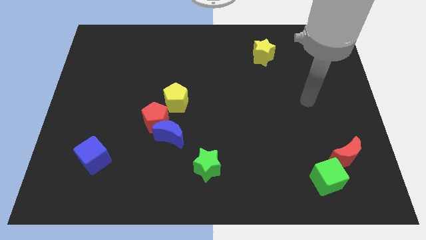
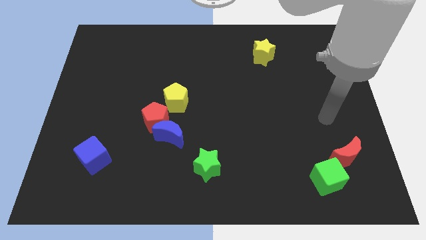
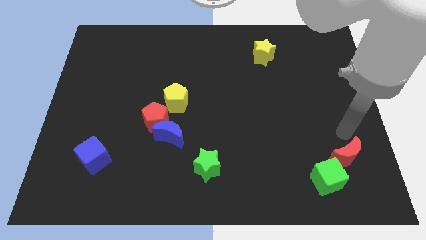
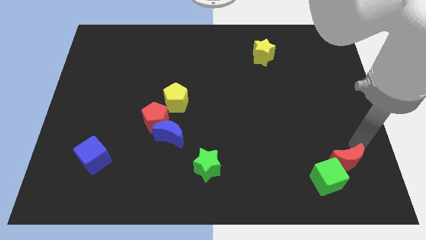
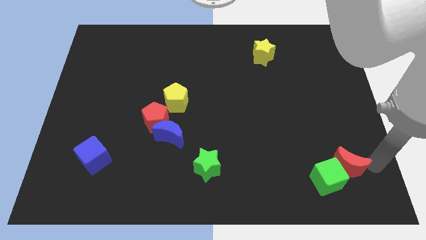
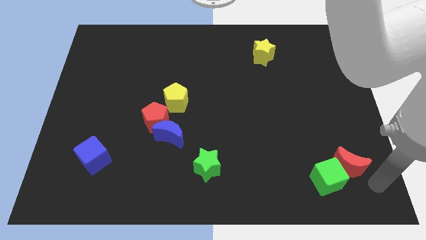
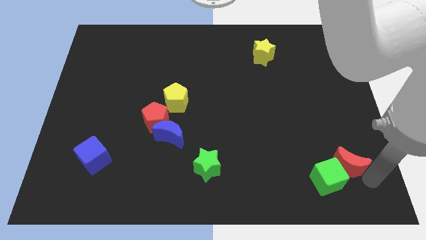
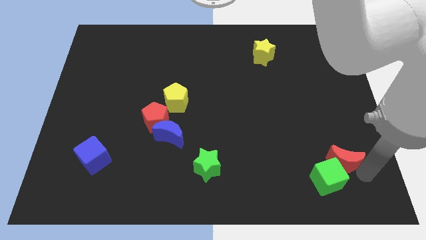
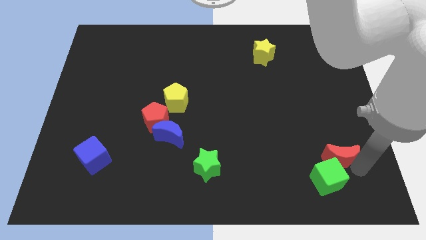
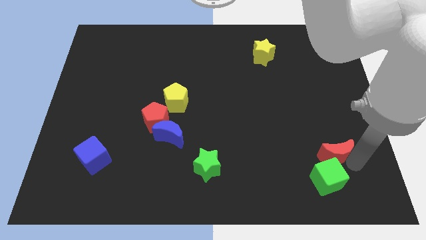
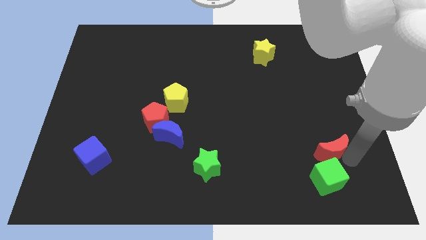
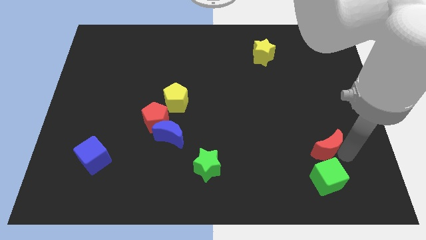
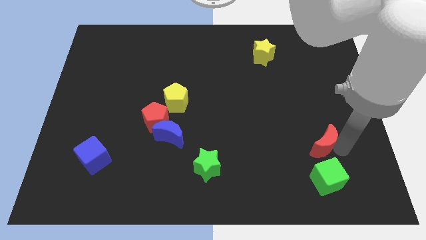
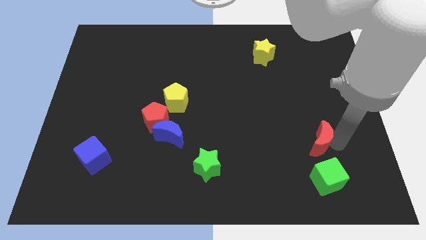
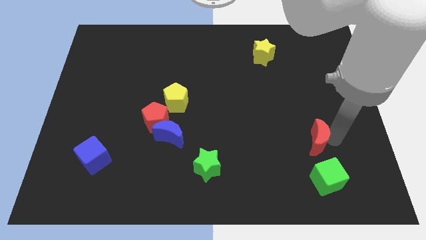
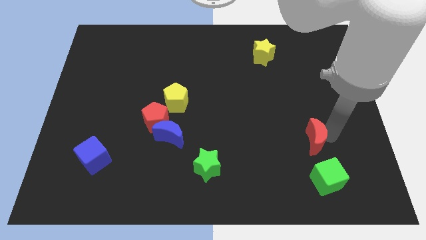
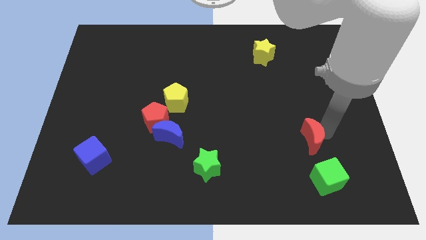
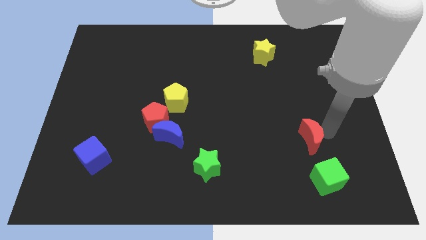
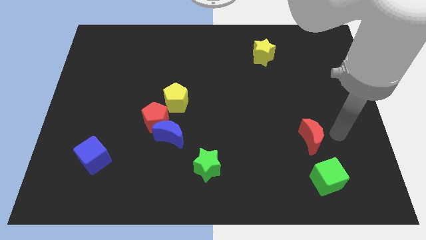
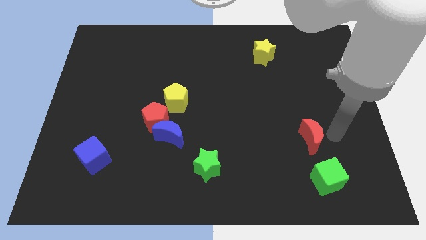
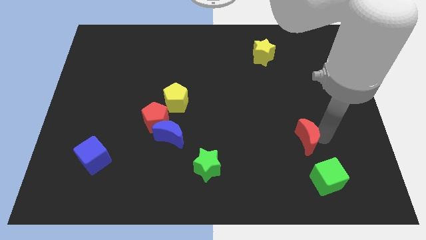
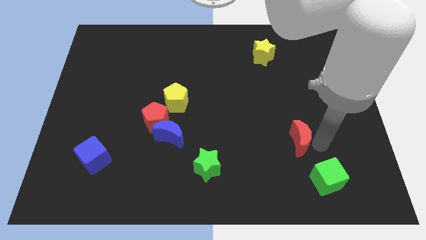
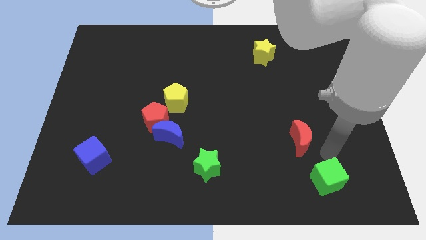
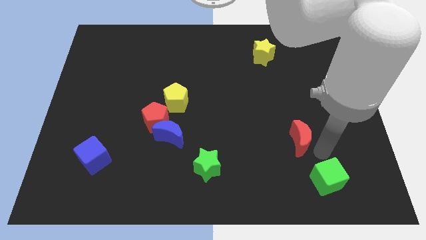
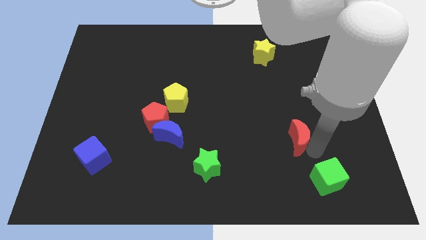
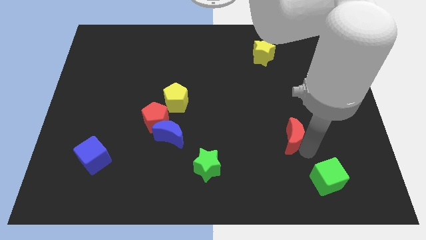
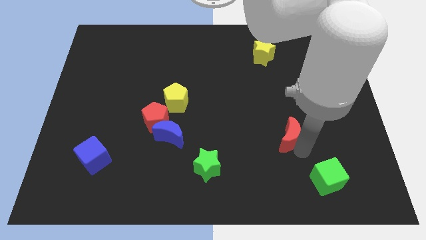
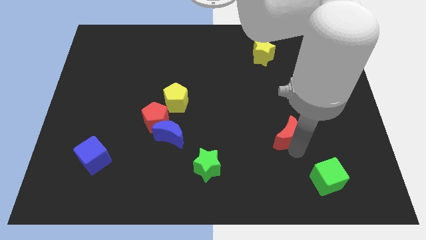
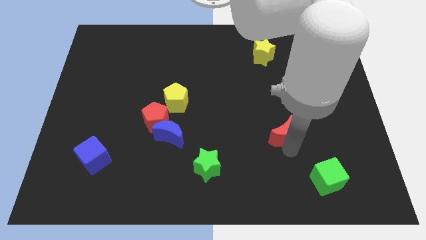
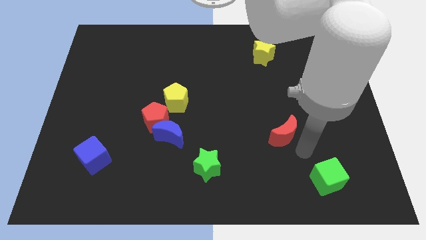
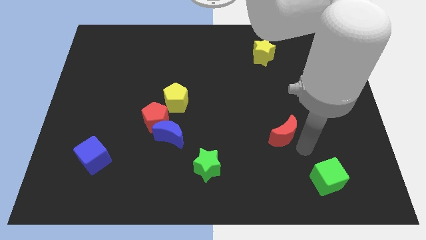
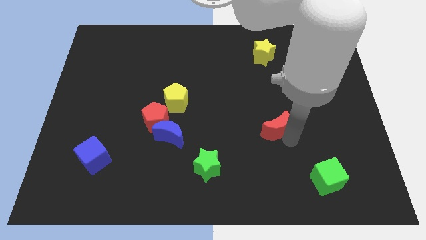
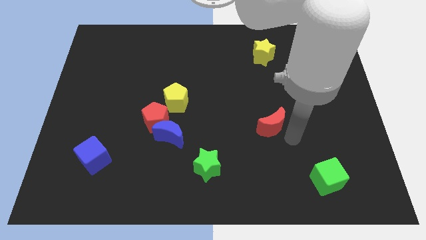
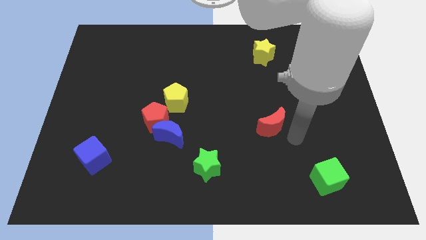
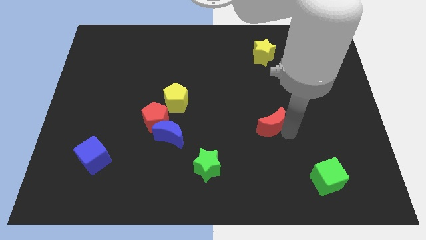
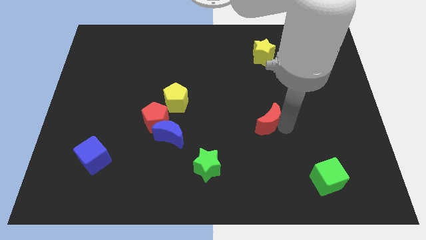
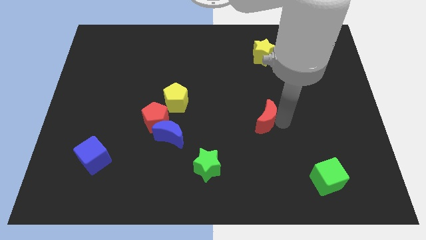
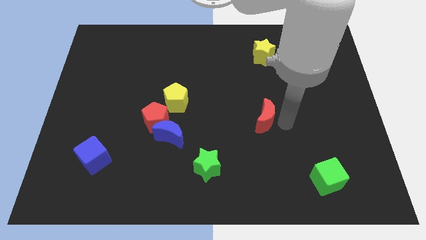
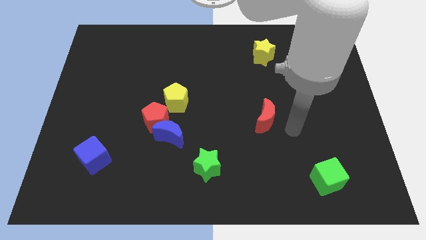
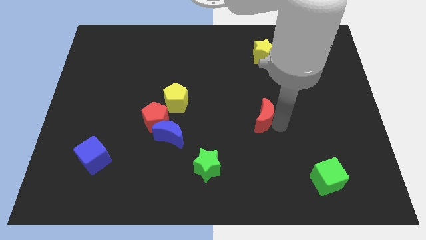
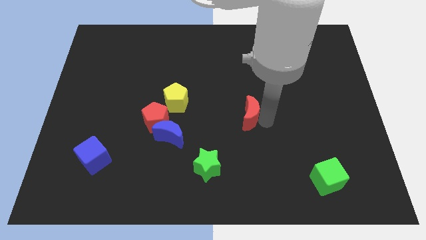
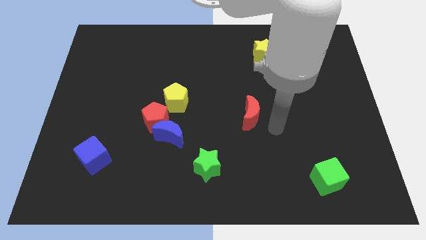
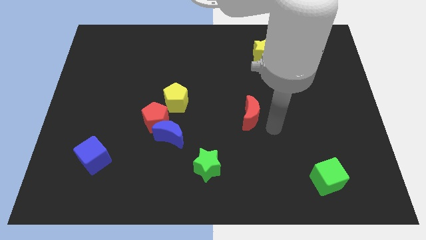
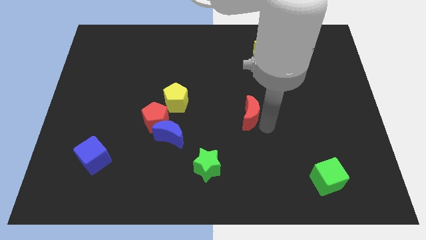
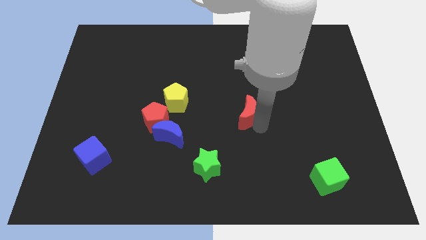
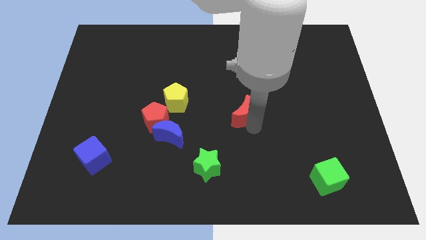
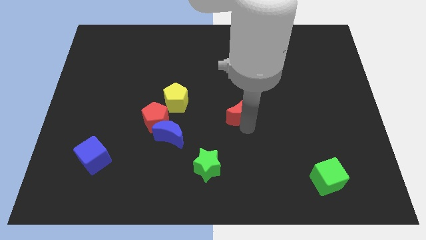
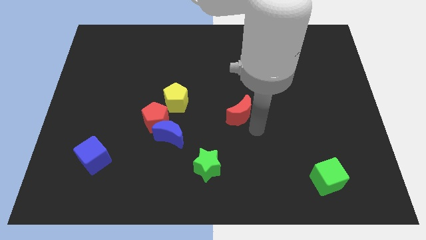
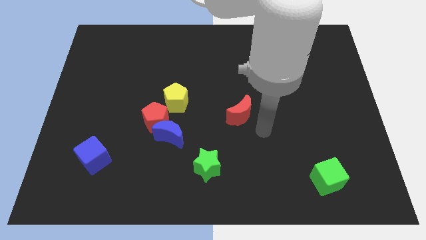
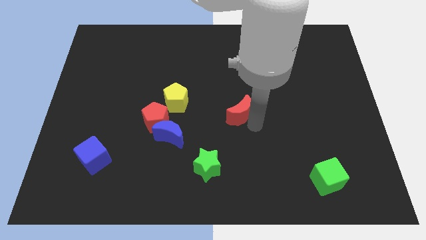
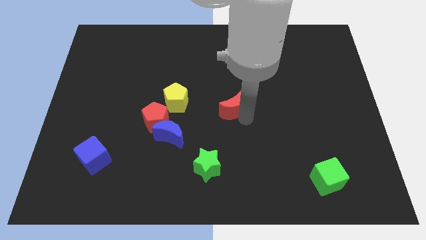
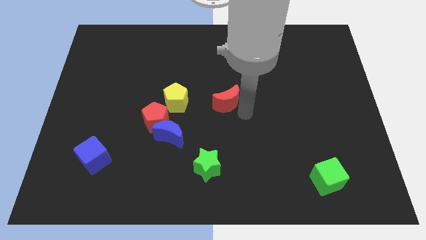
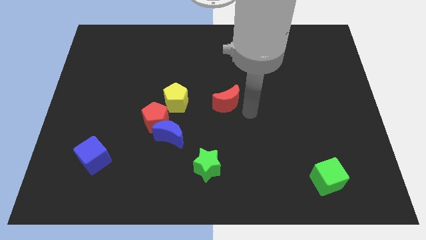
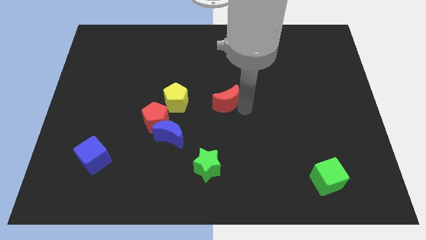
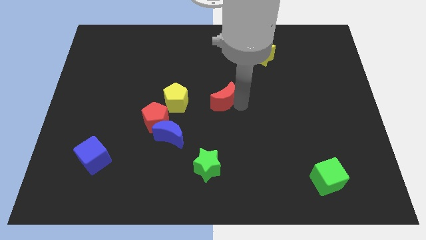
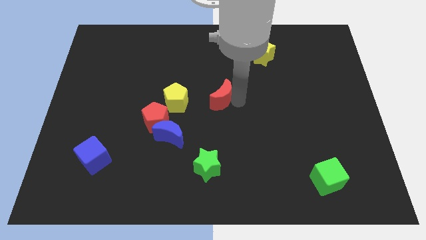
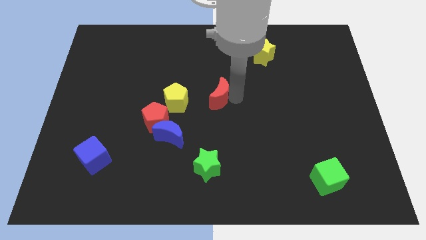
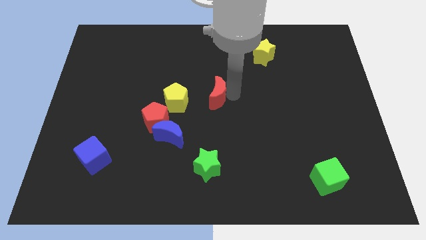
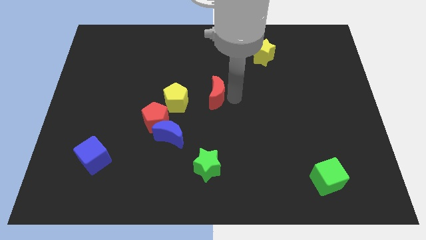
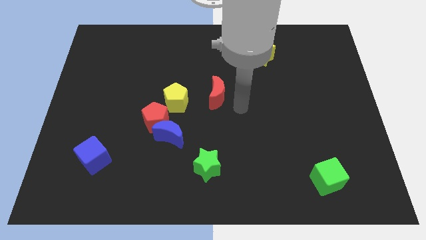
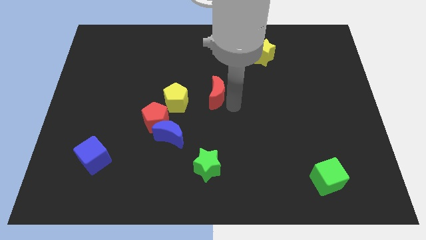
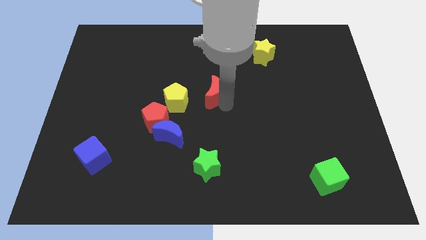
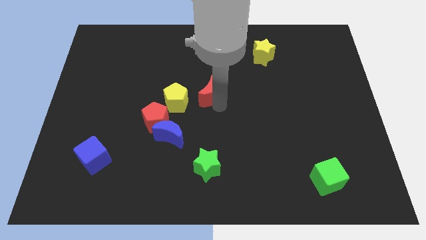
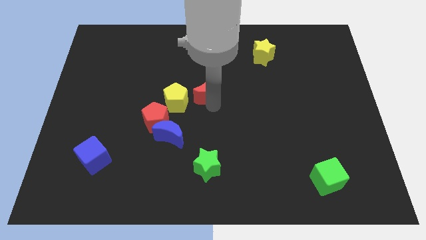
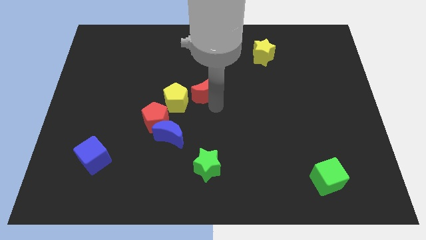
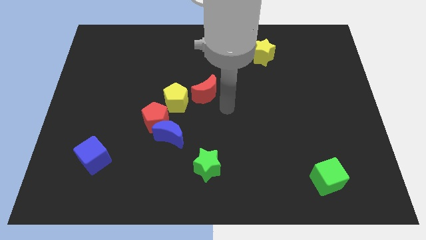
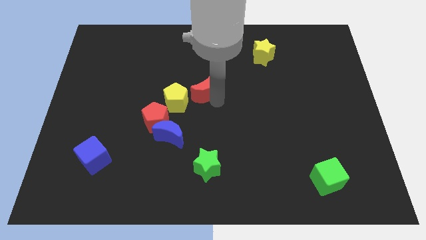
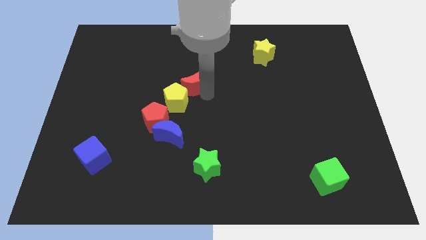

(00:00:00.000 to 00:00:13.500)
push the red moon to the top of the yellow pentagon
